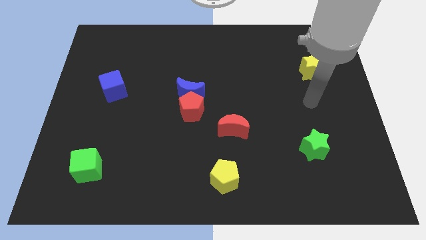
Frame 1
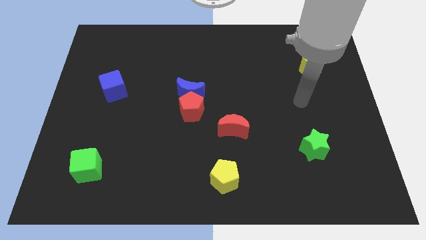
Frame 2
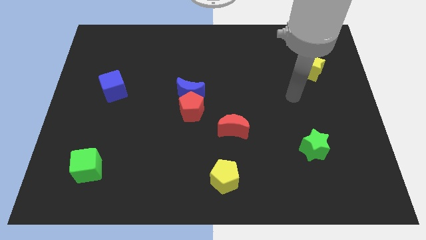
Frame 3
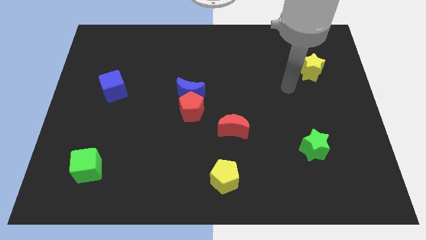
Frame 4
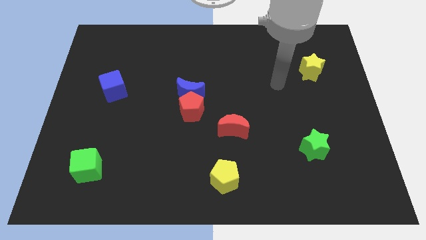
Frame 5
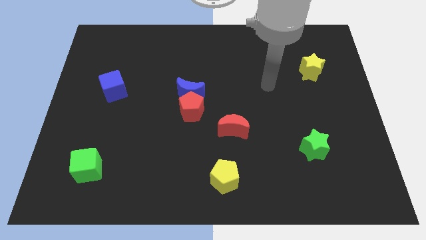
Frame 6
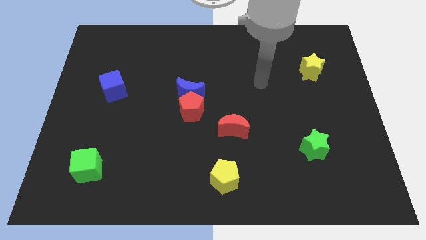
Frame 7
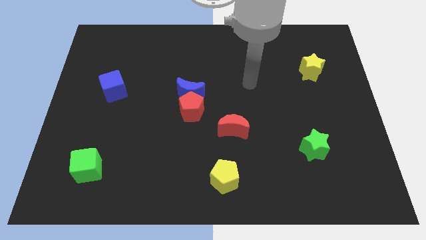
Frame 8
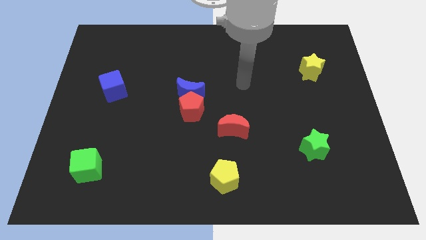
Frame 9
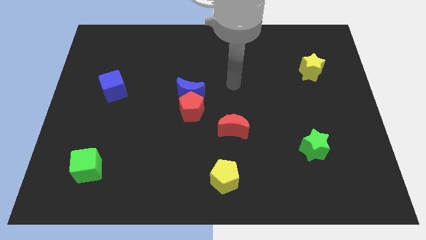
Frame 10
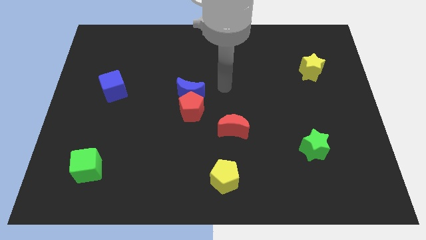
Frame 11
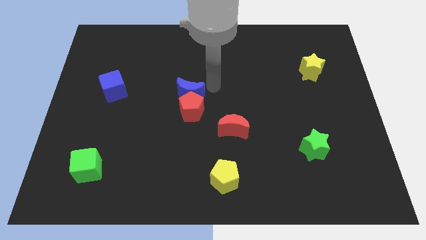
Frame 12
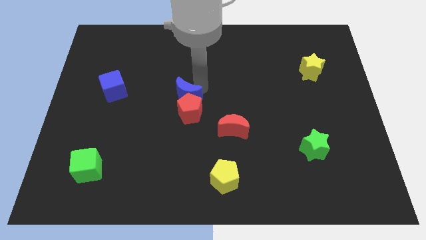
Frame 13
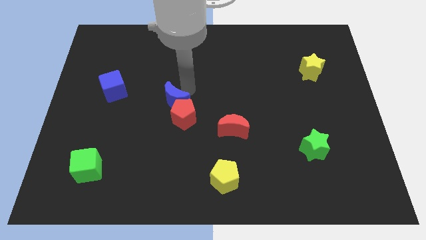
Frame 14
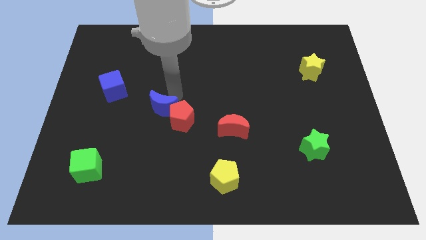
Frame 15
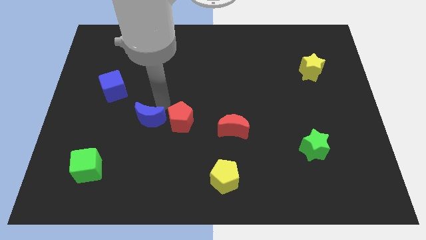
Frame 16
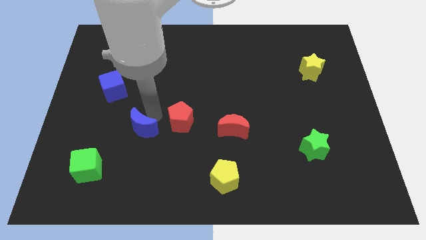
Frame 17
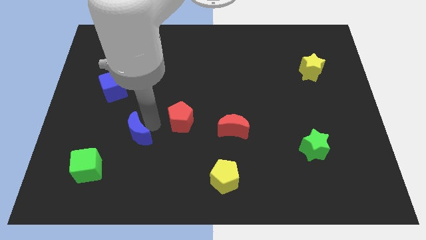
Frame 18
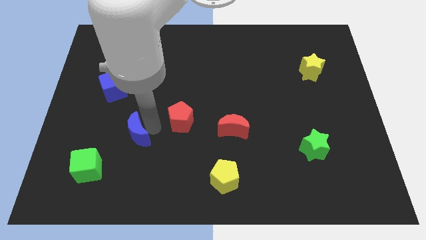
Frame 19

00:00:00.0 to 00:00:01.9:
separate the red pentagon from the blue moon

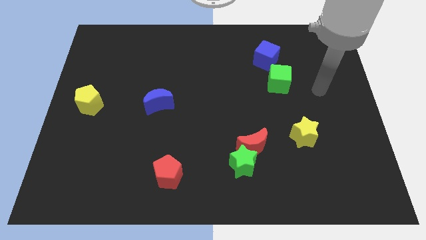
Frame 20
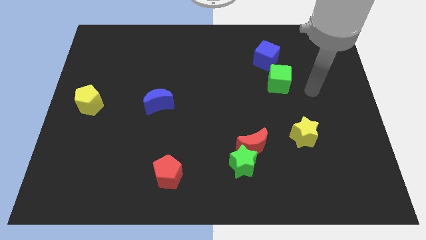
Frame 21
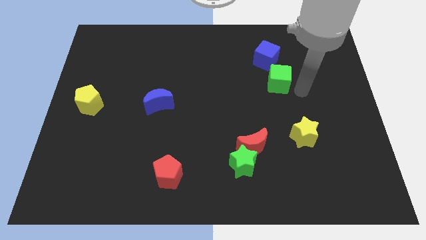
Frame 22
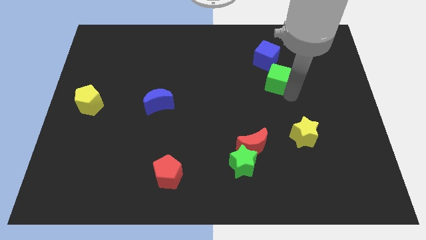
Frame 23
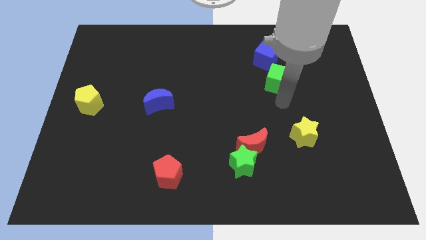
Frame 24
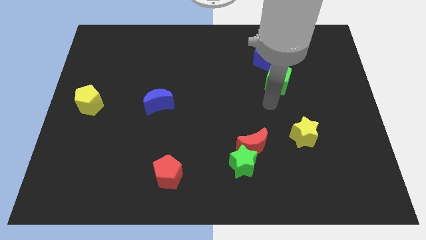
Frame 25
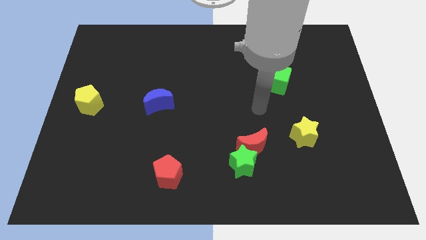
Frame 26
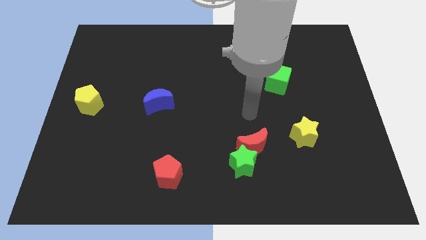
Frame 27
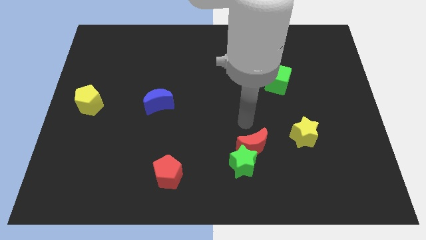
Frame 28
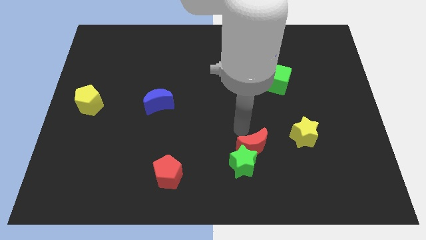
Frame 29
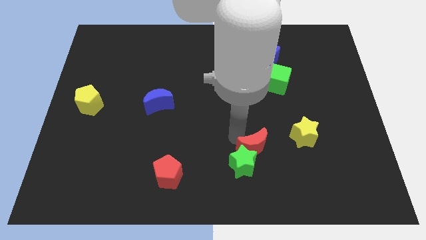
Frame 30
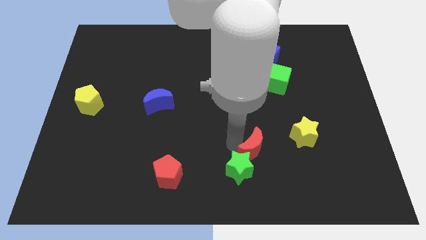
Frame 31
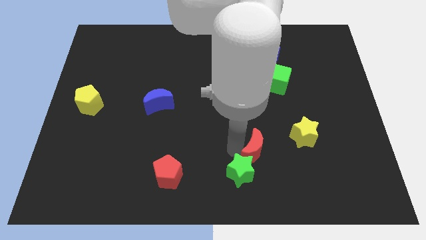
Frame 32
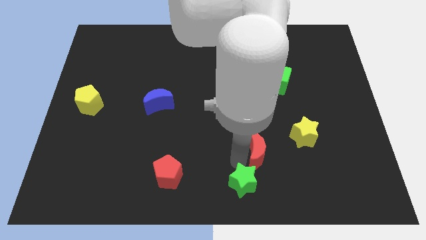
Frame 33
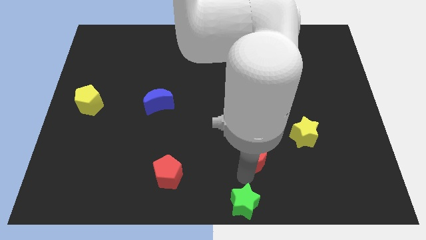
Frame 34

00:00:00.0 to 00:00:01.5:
separate the red moon from the green star

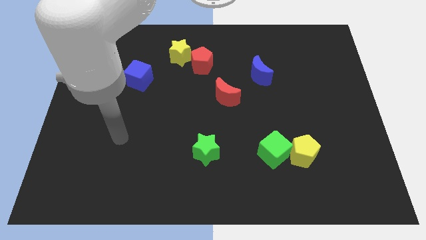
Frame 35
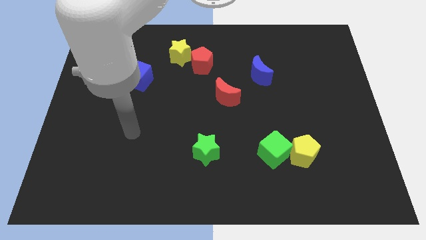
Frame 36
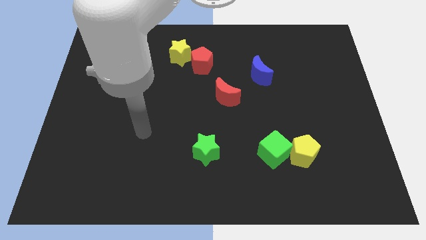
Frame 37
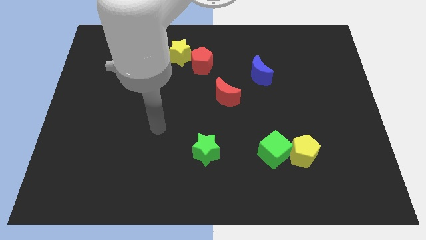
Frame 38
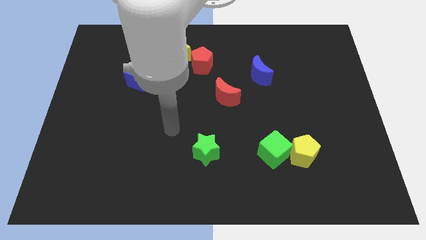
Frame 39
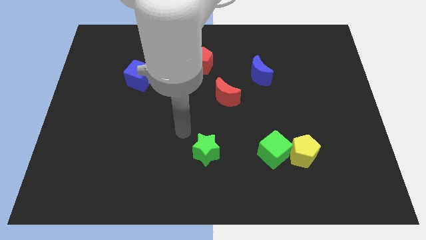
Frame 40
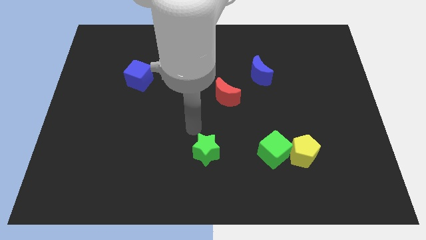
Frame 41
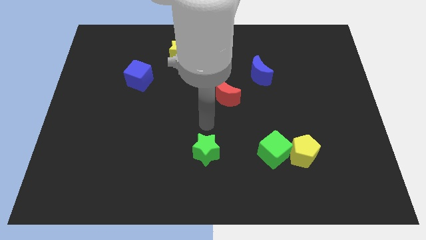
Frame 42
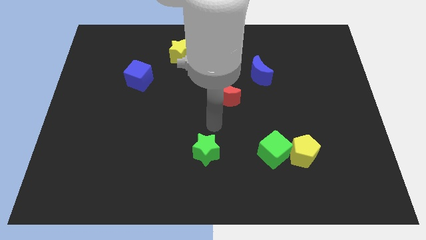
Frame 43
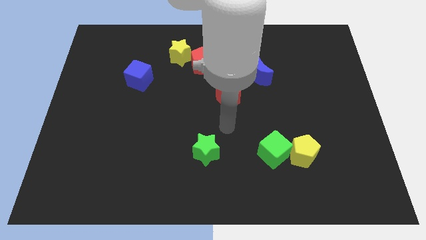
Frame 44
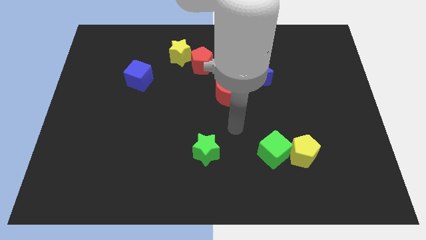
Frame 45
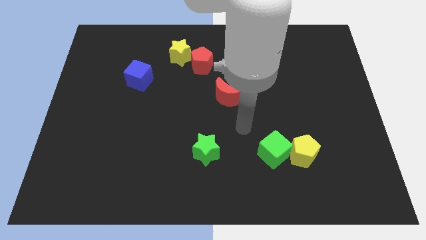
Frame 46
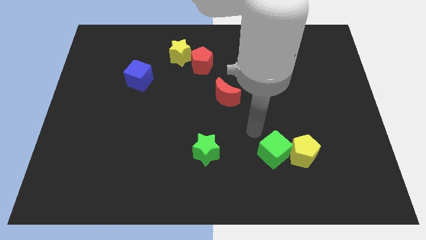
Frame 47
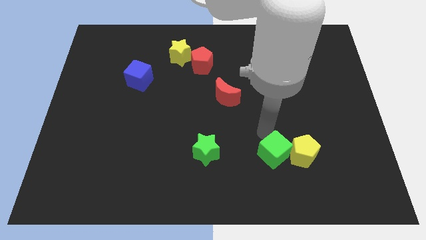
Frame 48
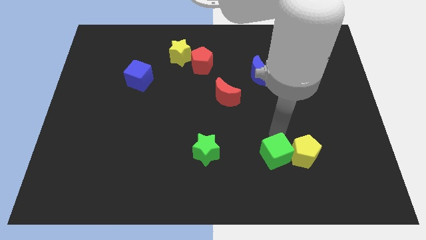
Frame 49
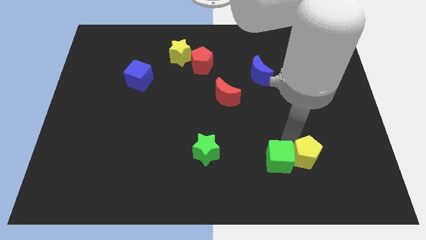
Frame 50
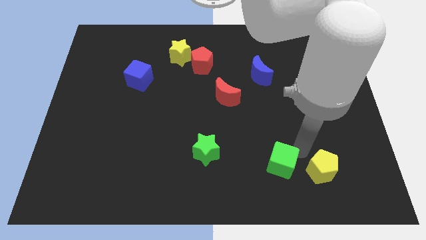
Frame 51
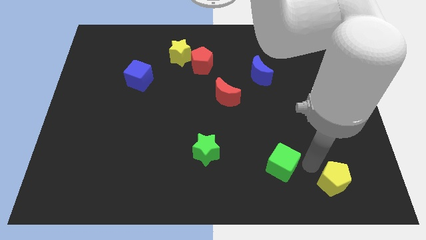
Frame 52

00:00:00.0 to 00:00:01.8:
separate the green cube from the yellow pentagon

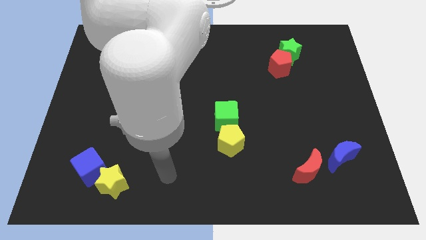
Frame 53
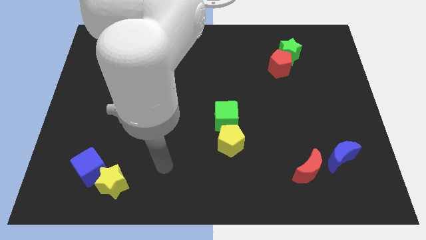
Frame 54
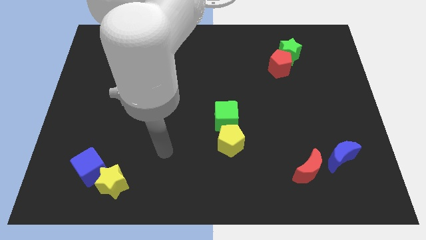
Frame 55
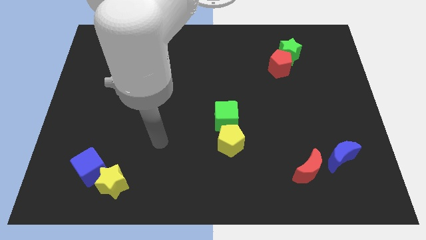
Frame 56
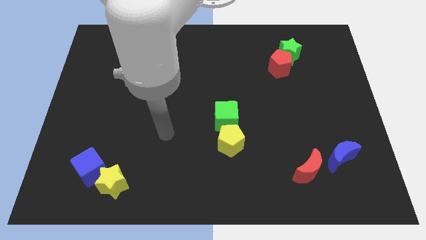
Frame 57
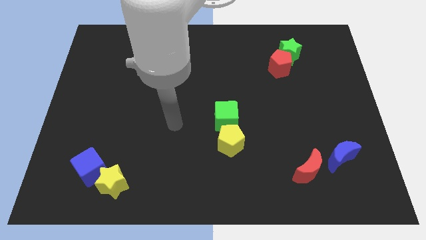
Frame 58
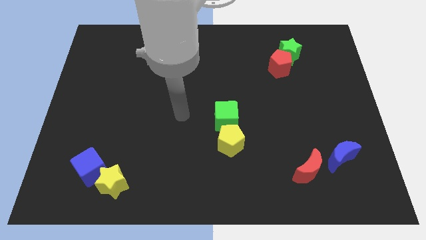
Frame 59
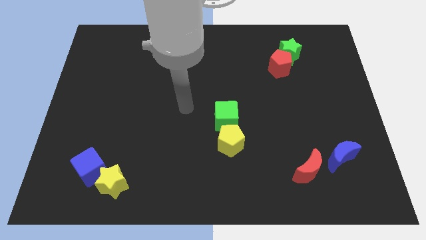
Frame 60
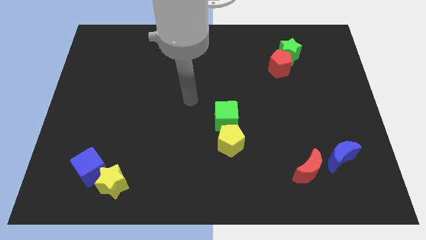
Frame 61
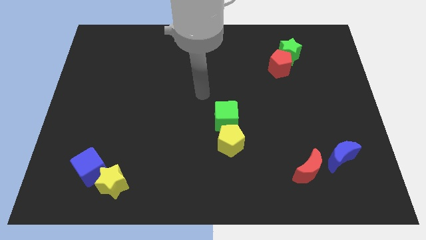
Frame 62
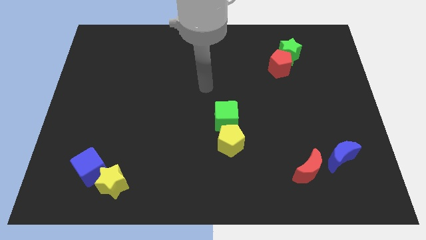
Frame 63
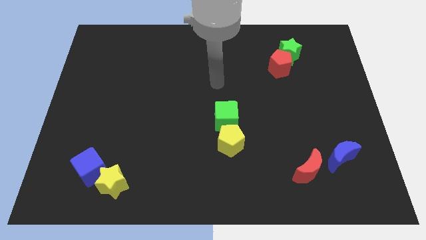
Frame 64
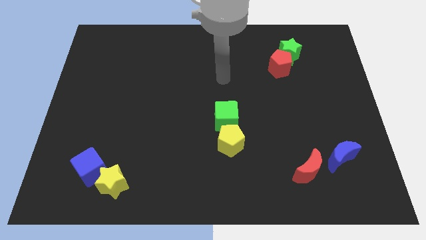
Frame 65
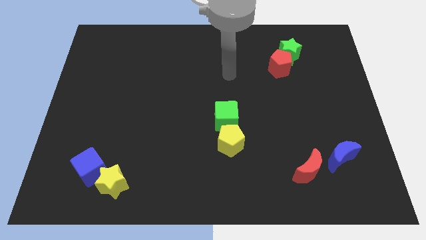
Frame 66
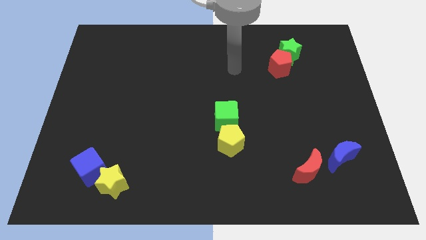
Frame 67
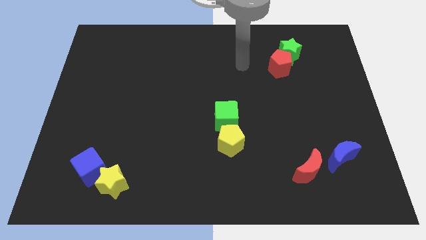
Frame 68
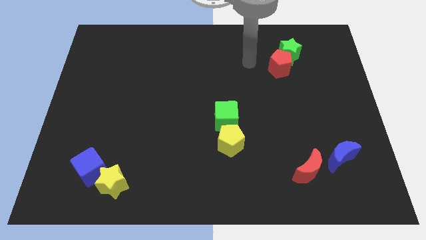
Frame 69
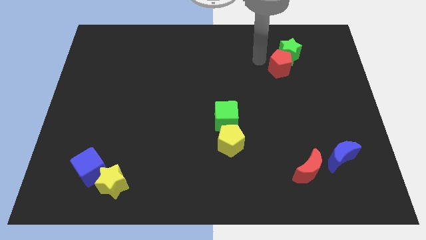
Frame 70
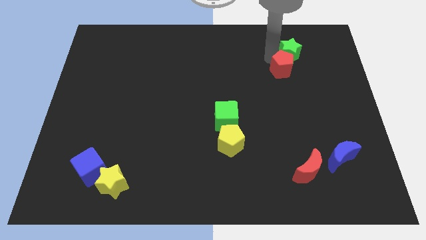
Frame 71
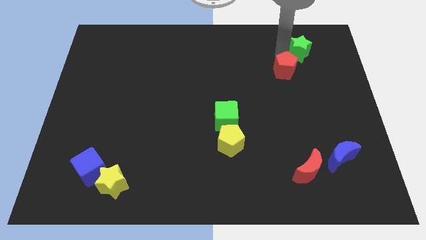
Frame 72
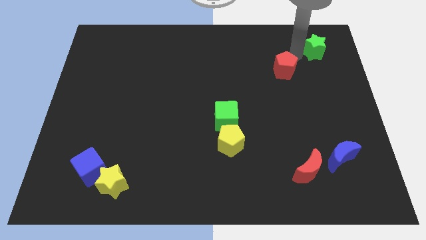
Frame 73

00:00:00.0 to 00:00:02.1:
pull the red pentagon apart from the green star

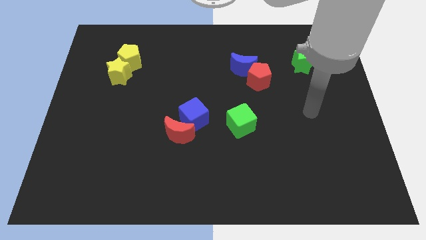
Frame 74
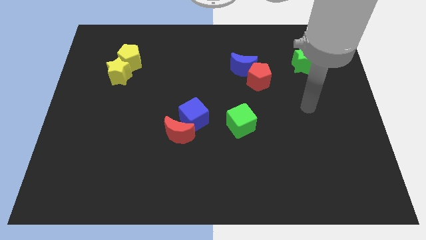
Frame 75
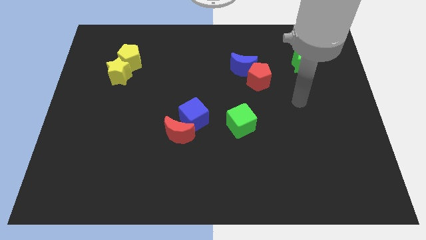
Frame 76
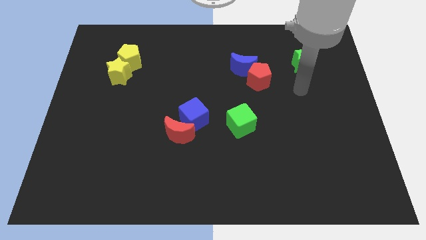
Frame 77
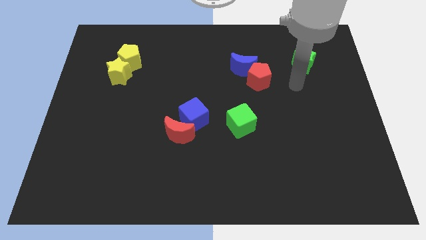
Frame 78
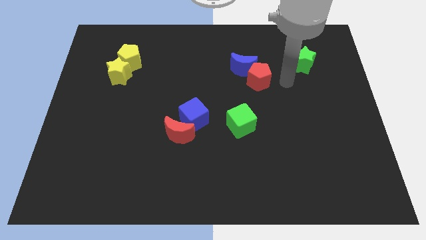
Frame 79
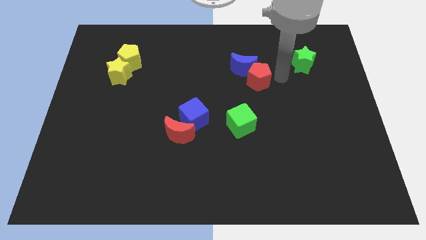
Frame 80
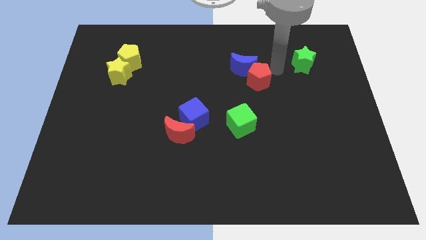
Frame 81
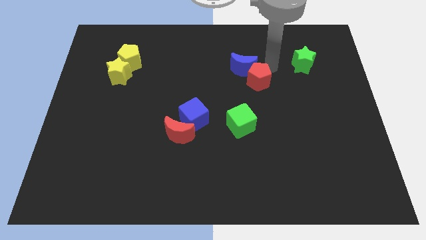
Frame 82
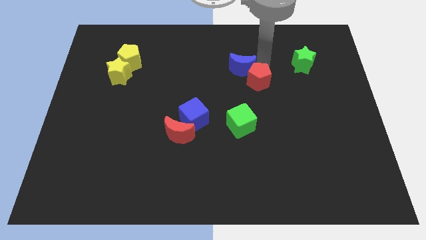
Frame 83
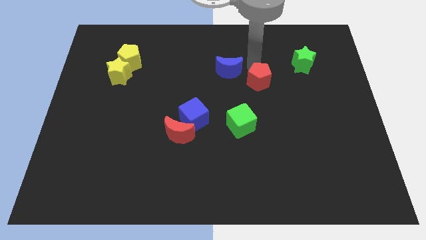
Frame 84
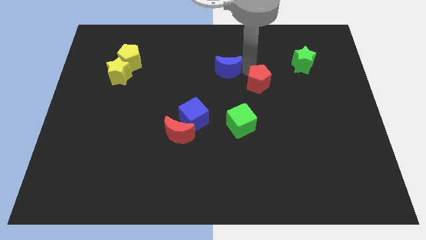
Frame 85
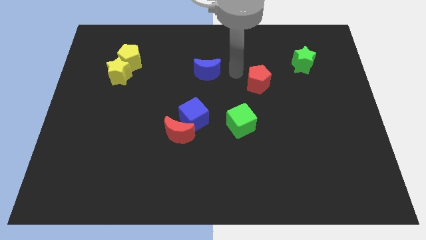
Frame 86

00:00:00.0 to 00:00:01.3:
pull the red pentagon apart from the blue moon

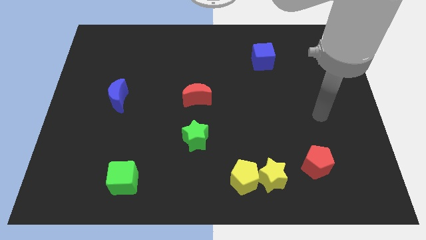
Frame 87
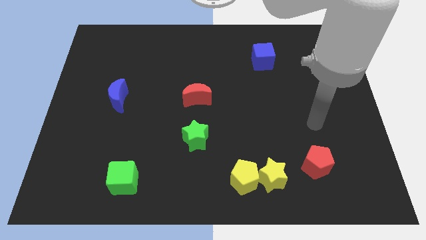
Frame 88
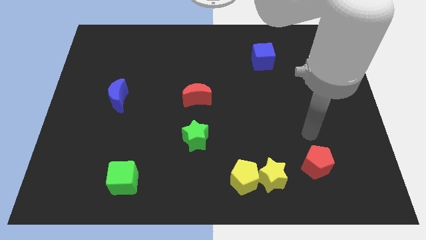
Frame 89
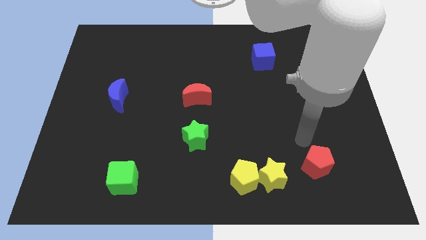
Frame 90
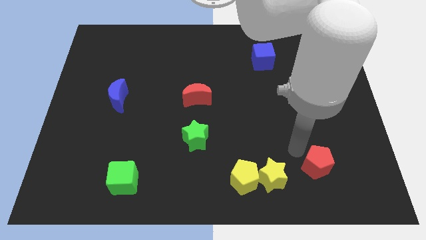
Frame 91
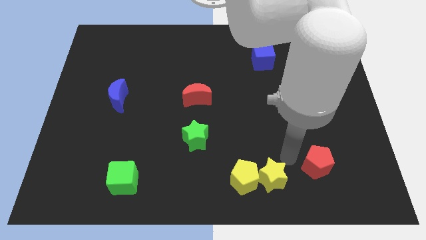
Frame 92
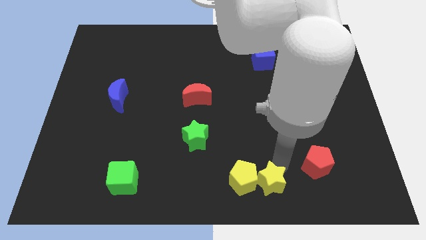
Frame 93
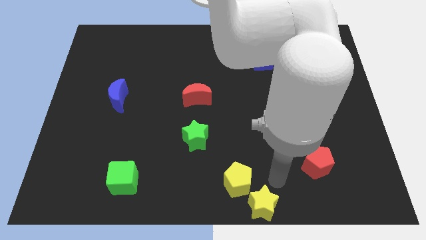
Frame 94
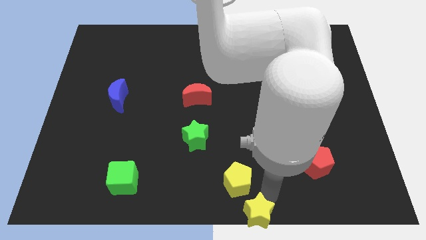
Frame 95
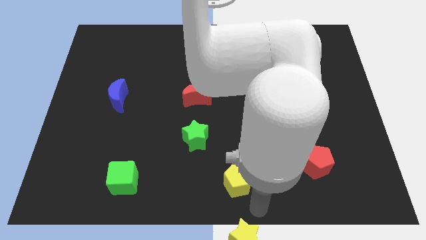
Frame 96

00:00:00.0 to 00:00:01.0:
move the yellow pentagon away from the yellow star
